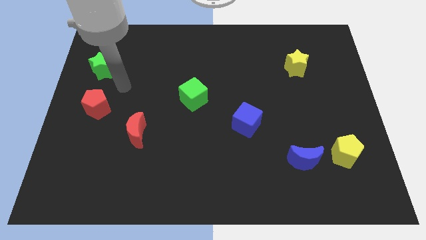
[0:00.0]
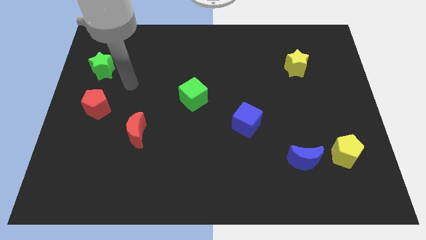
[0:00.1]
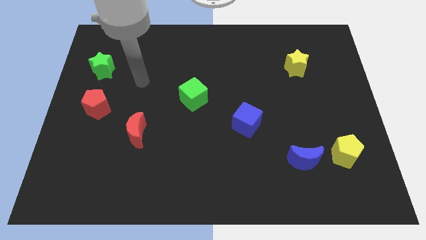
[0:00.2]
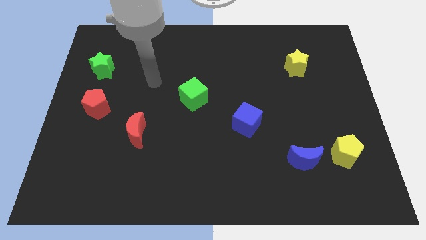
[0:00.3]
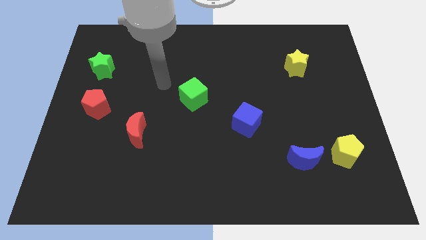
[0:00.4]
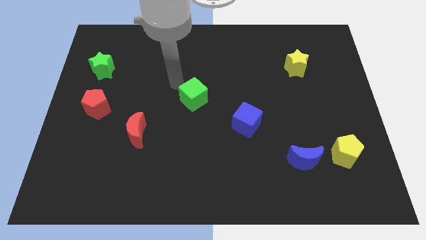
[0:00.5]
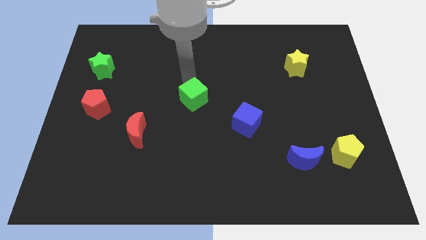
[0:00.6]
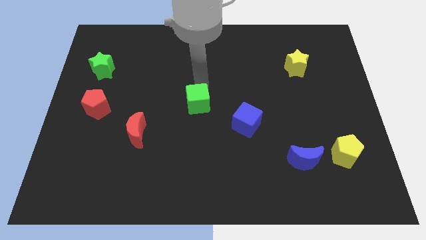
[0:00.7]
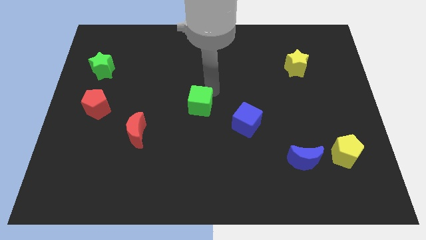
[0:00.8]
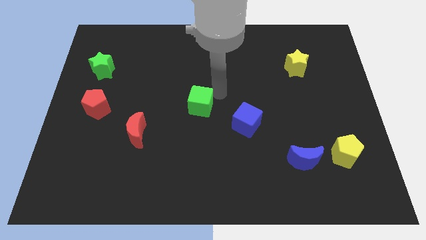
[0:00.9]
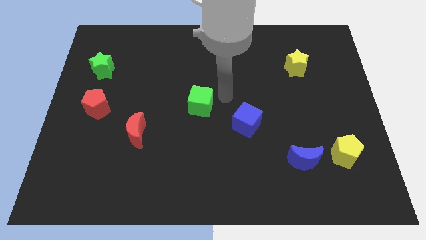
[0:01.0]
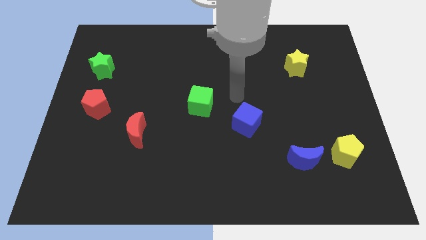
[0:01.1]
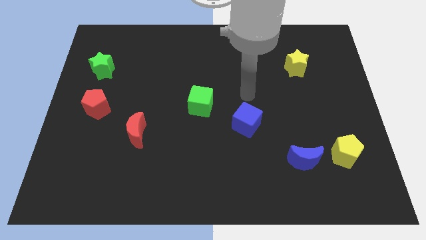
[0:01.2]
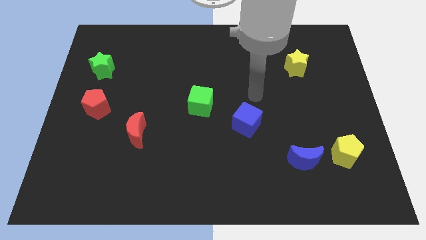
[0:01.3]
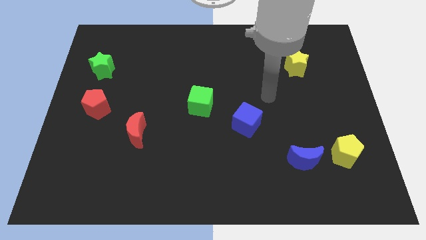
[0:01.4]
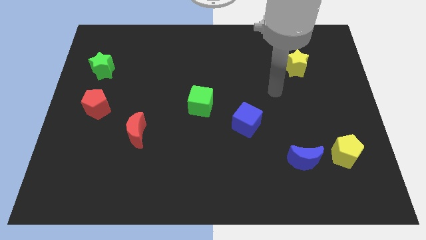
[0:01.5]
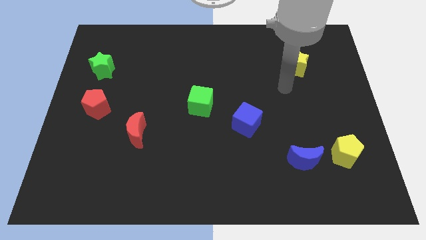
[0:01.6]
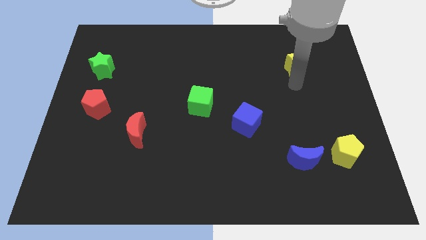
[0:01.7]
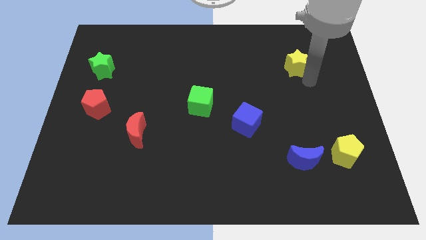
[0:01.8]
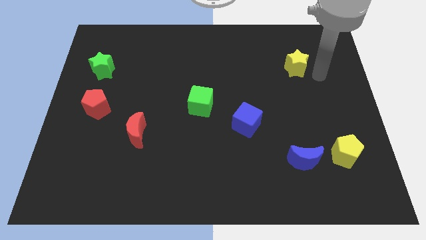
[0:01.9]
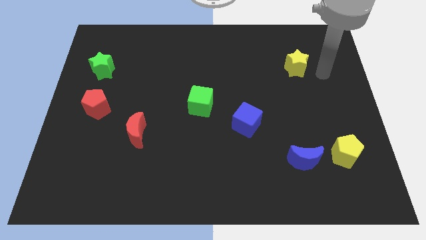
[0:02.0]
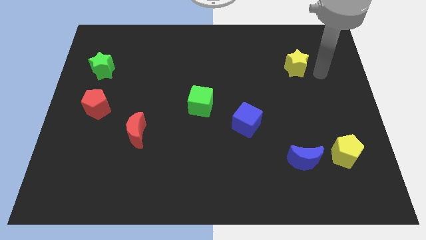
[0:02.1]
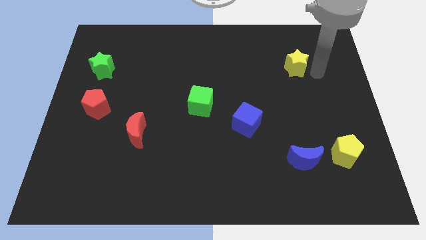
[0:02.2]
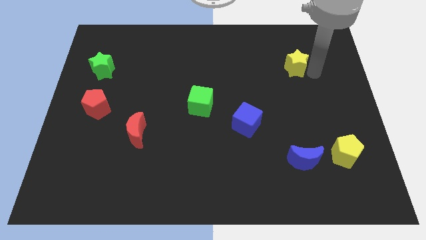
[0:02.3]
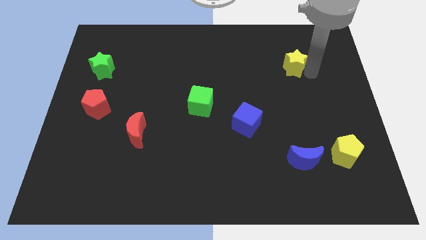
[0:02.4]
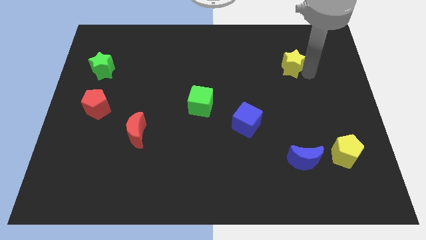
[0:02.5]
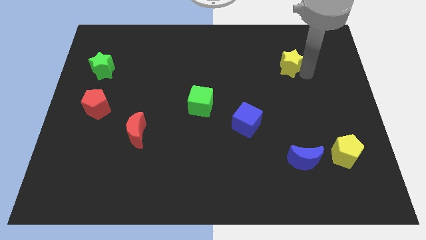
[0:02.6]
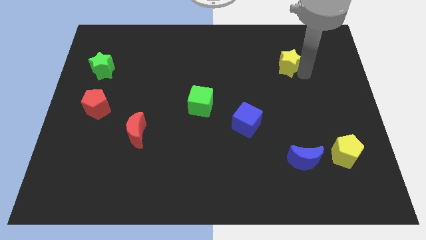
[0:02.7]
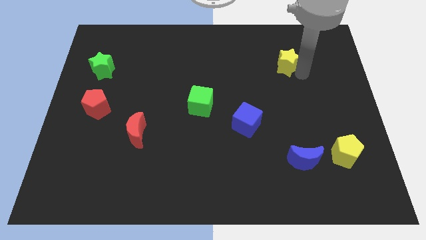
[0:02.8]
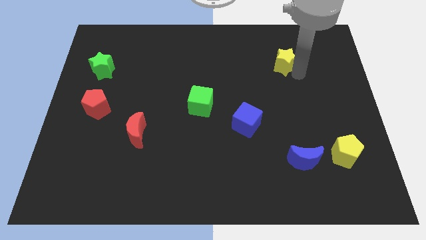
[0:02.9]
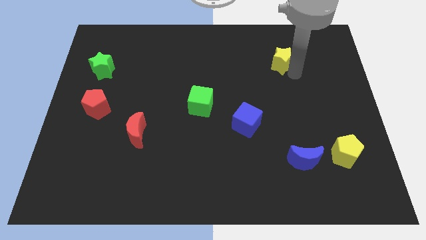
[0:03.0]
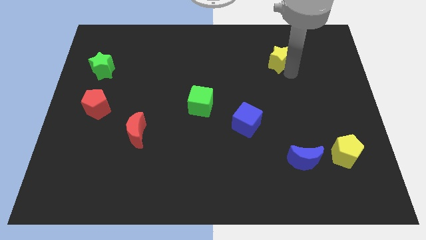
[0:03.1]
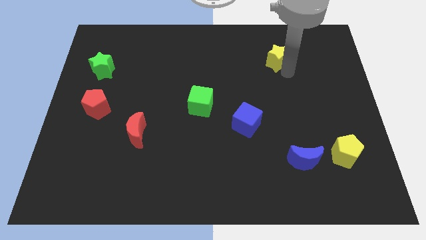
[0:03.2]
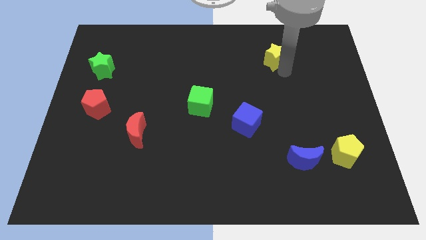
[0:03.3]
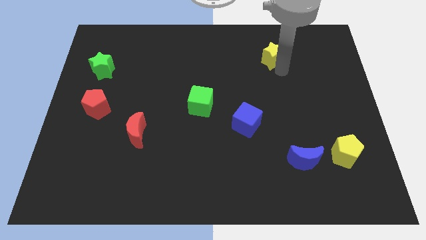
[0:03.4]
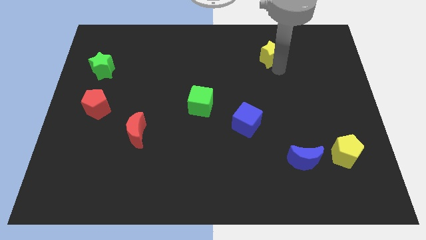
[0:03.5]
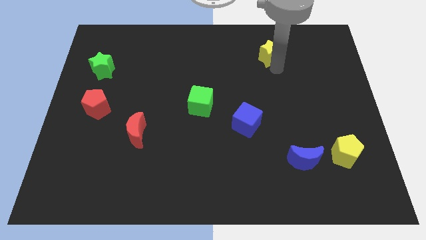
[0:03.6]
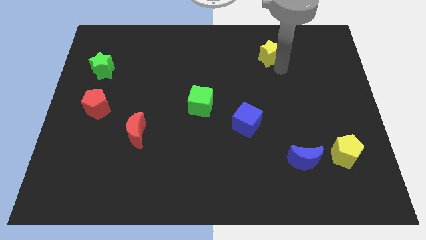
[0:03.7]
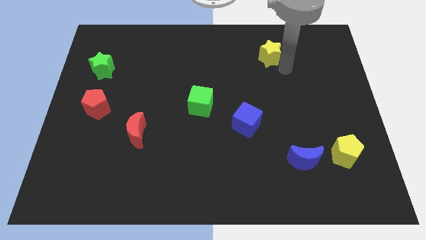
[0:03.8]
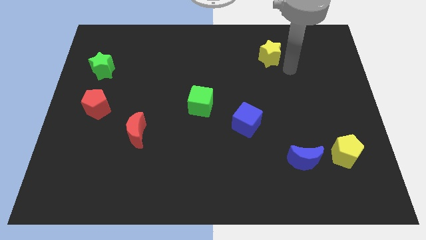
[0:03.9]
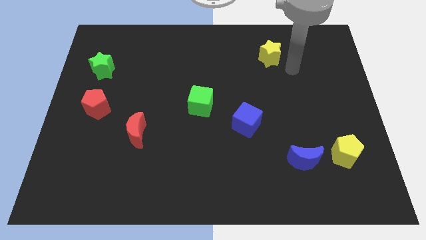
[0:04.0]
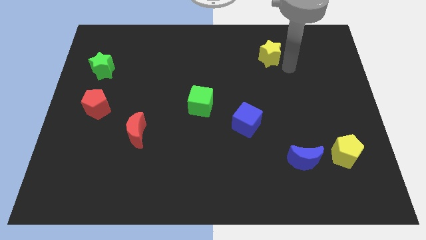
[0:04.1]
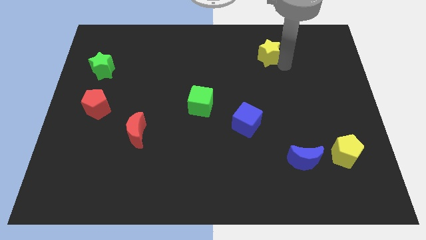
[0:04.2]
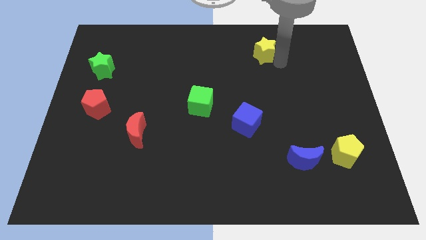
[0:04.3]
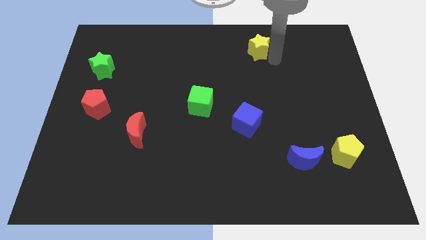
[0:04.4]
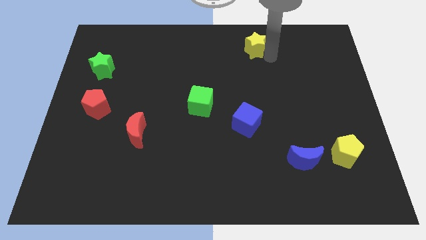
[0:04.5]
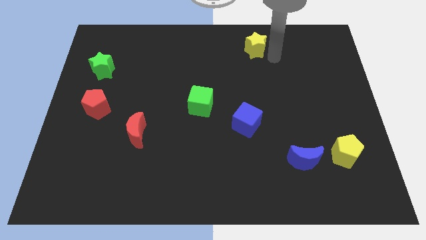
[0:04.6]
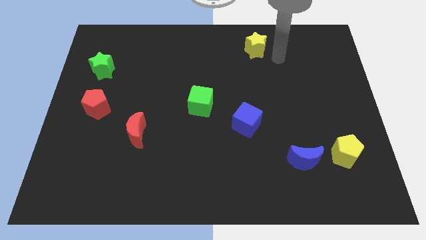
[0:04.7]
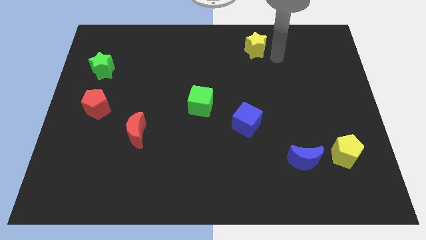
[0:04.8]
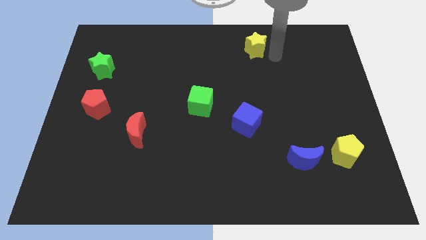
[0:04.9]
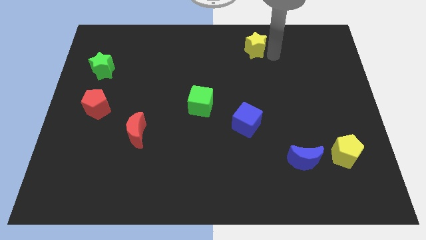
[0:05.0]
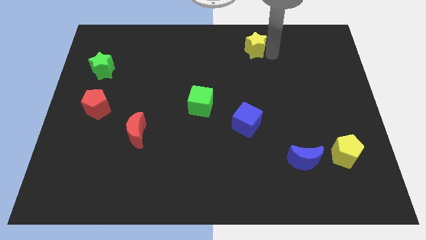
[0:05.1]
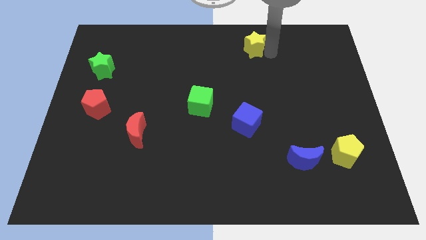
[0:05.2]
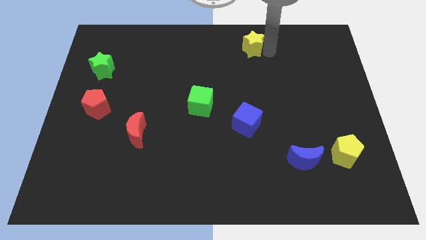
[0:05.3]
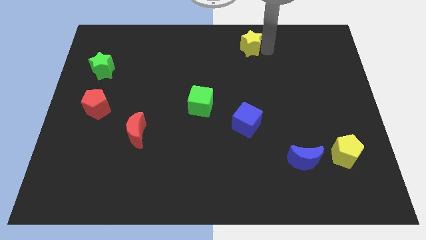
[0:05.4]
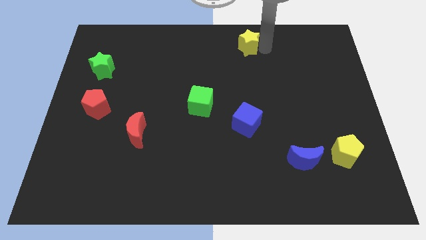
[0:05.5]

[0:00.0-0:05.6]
move the yellow star to the towards your base

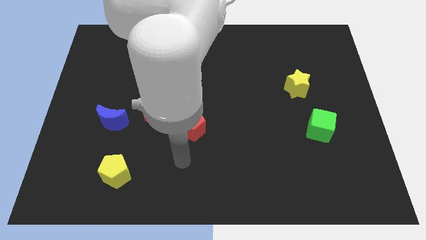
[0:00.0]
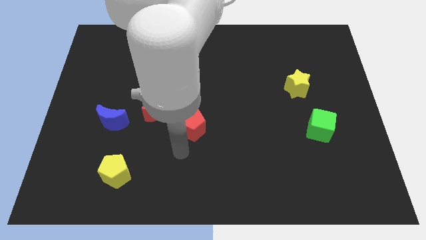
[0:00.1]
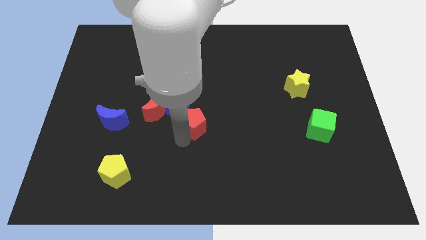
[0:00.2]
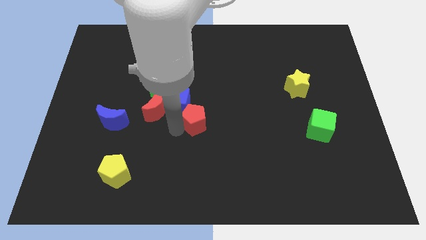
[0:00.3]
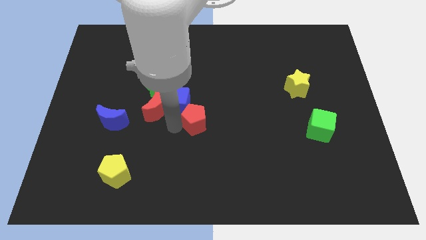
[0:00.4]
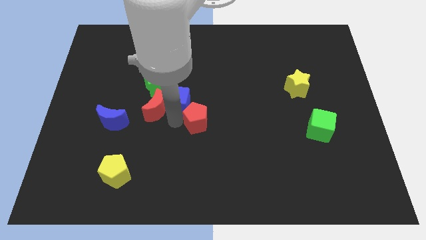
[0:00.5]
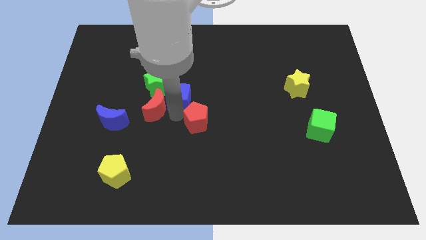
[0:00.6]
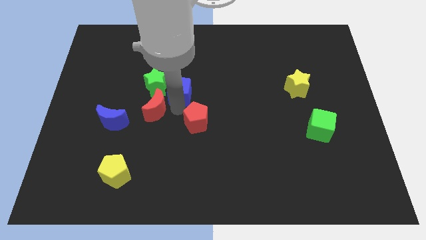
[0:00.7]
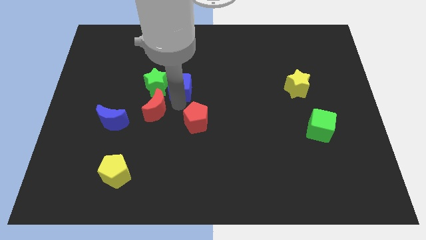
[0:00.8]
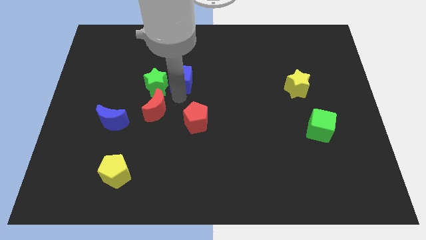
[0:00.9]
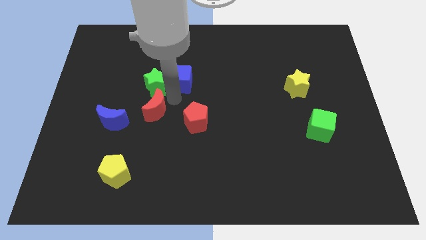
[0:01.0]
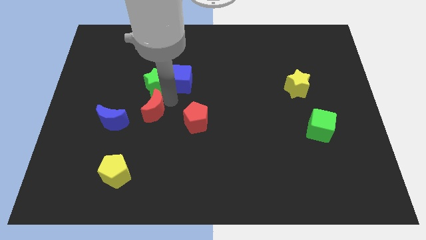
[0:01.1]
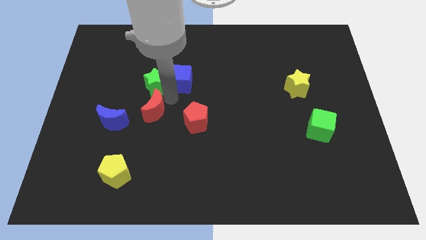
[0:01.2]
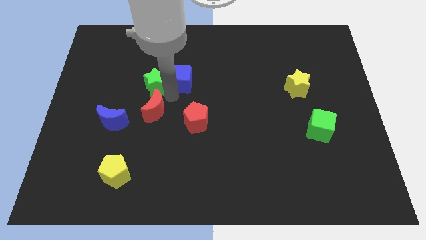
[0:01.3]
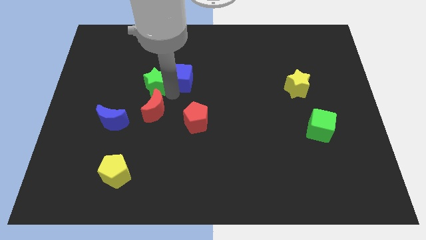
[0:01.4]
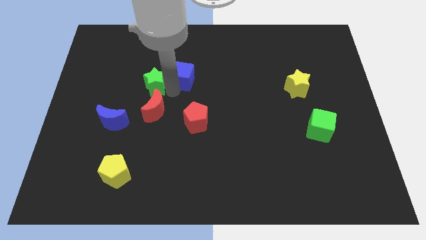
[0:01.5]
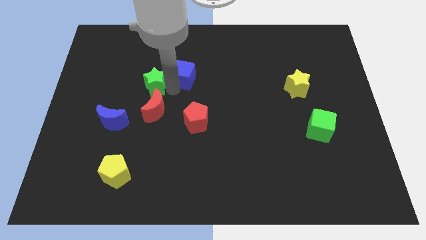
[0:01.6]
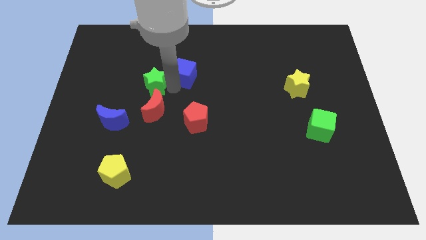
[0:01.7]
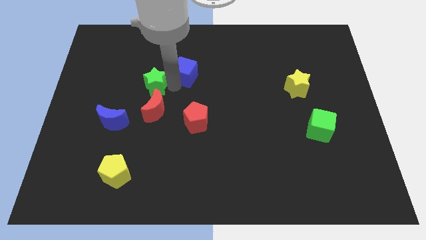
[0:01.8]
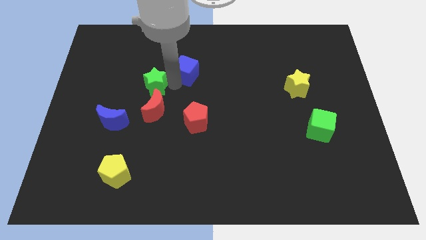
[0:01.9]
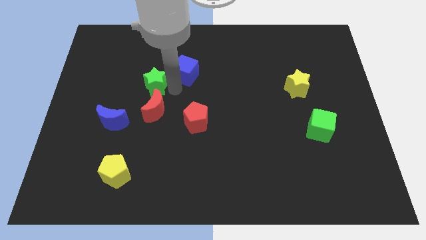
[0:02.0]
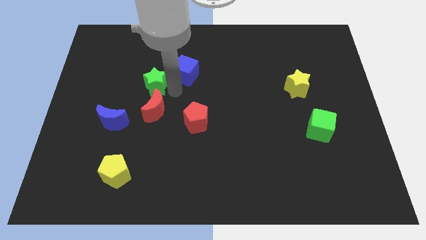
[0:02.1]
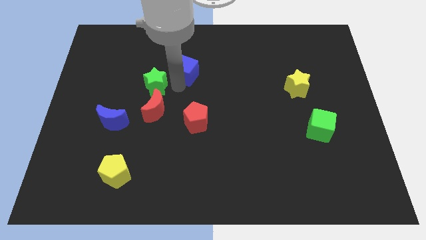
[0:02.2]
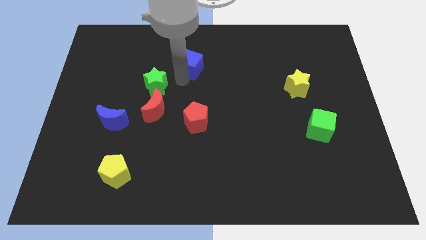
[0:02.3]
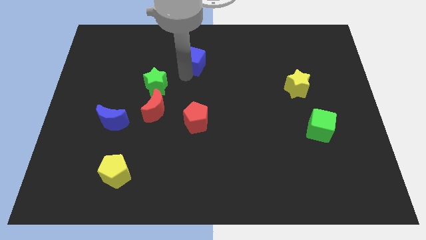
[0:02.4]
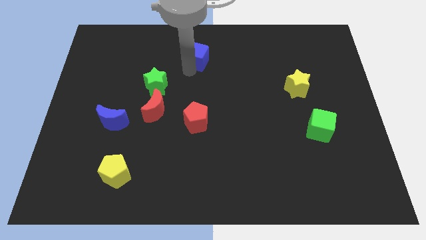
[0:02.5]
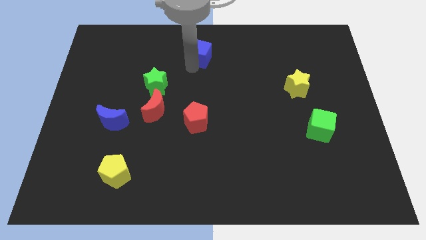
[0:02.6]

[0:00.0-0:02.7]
move the blue cube to the top side
